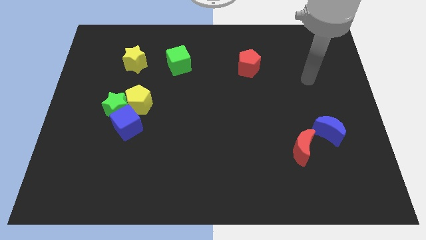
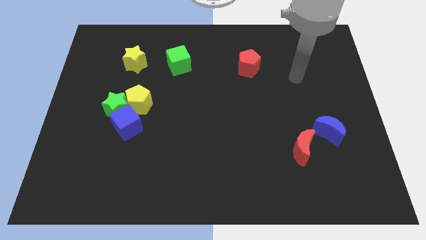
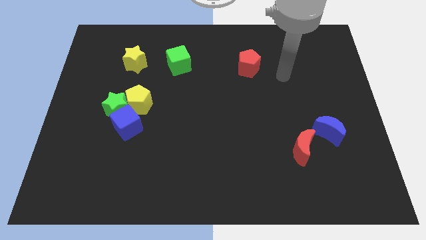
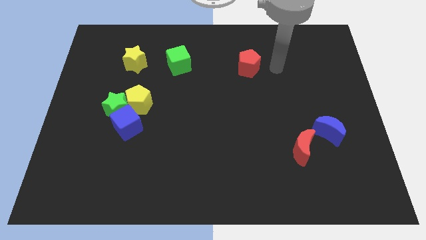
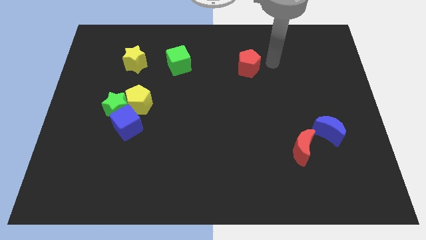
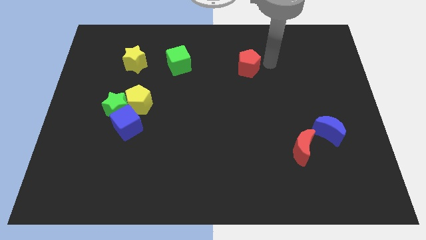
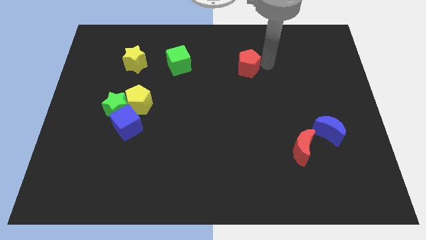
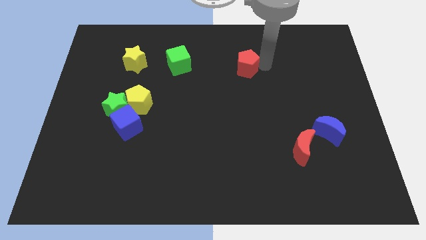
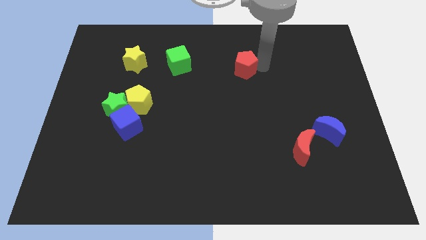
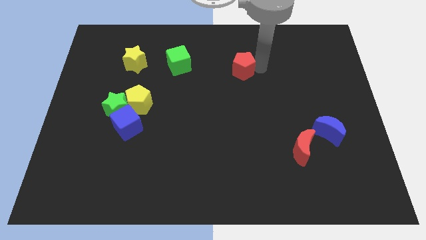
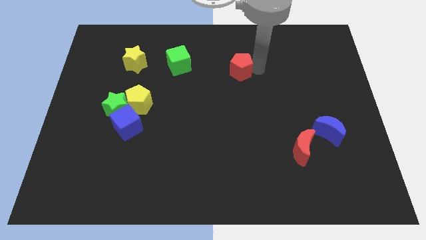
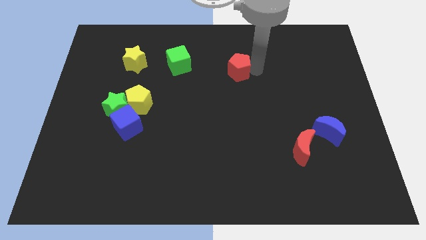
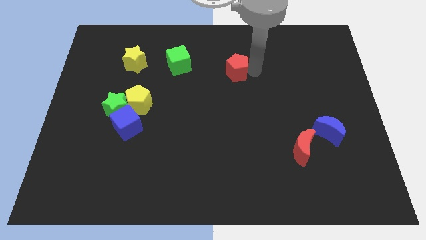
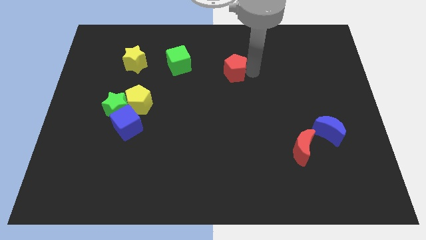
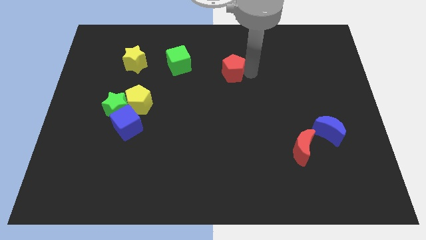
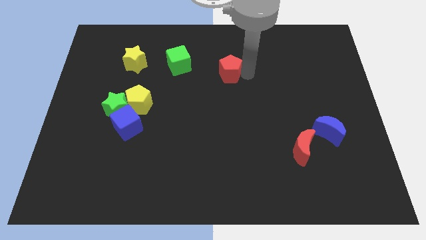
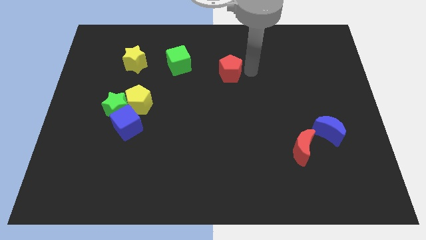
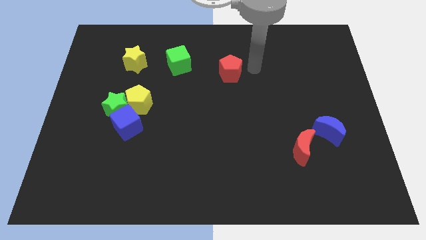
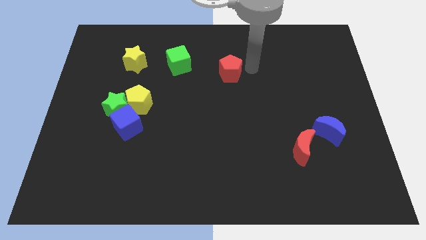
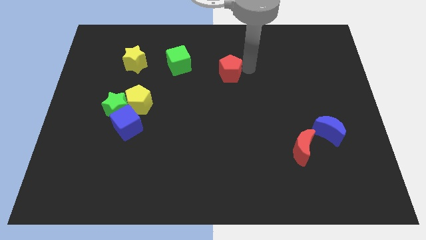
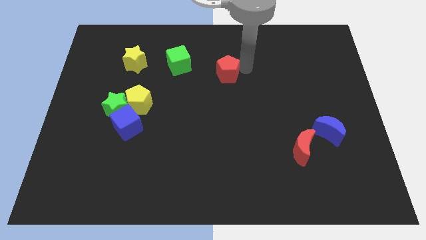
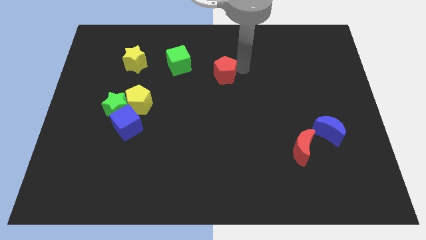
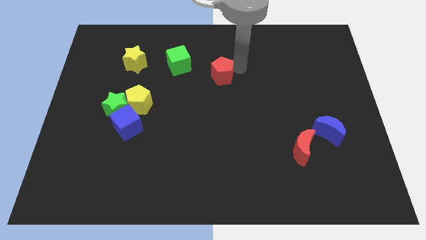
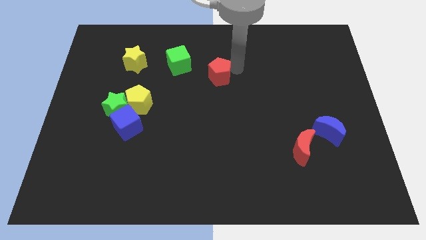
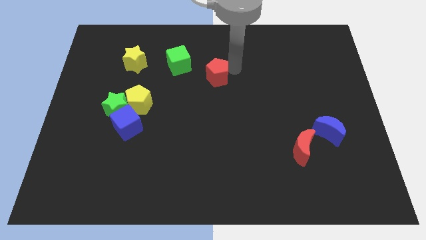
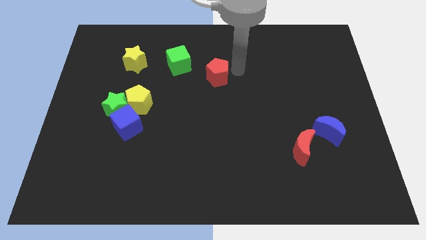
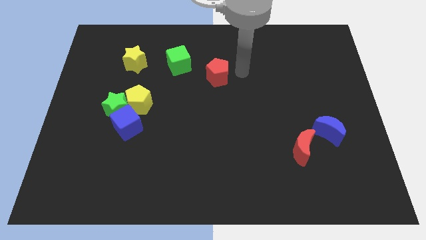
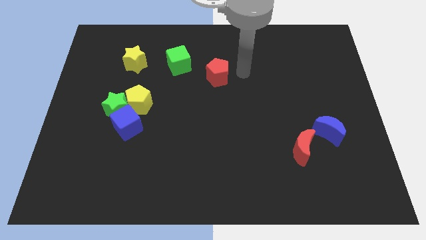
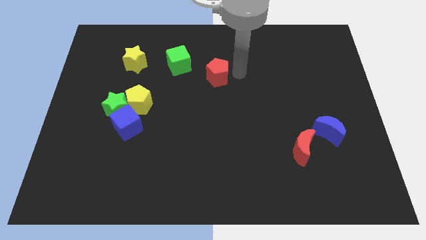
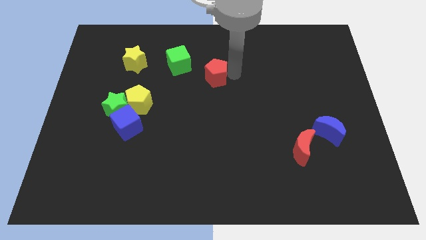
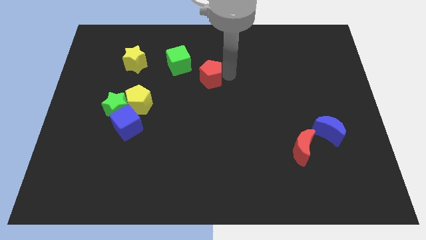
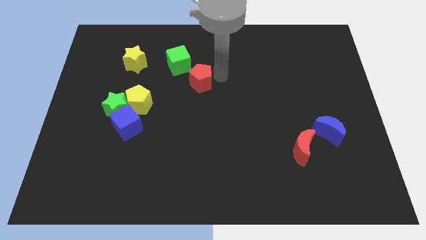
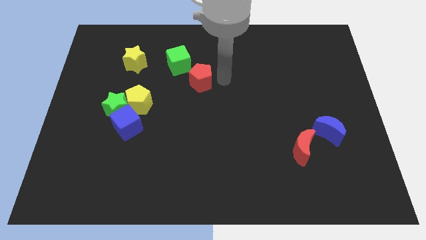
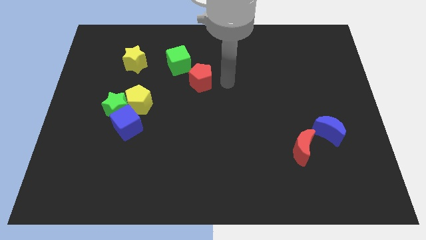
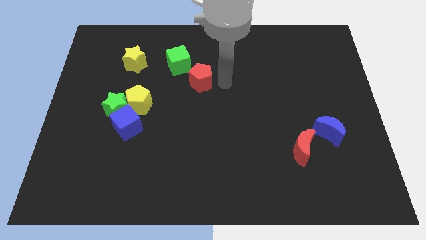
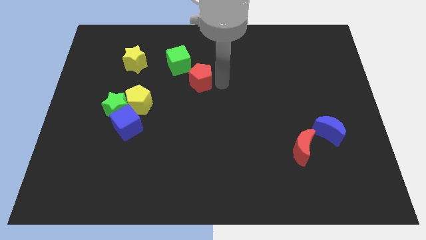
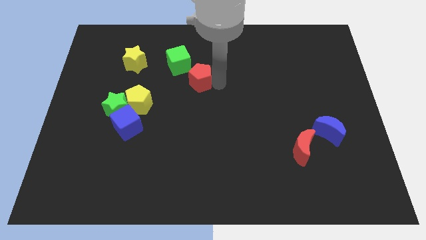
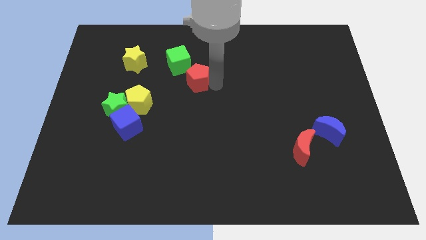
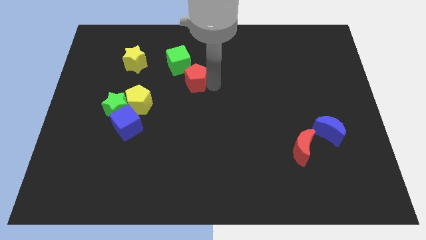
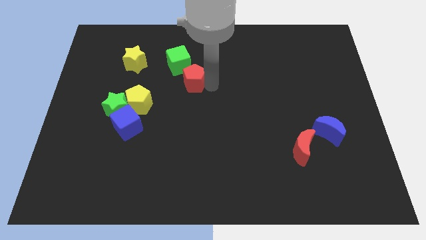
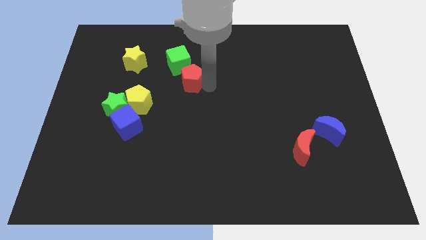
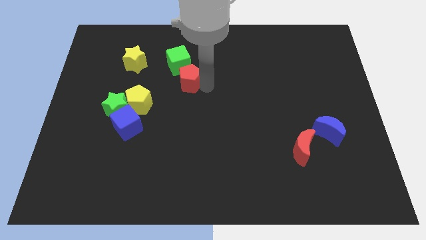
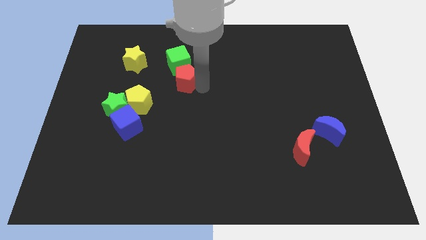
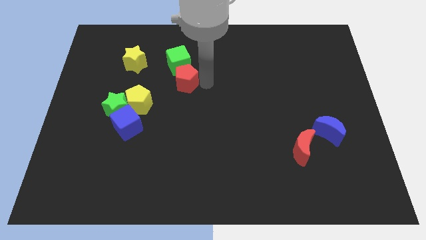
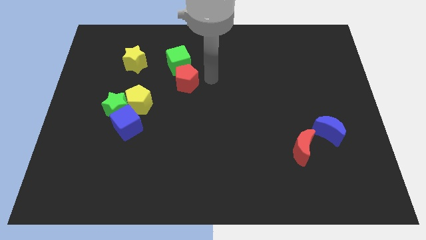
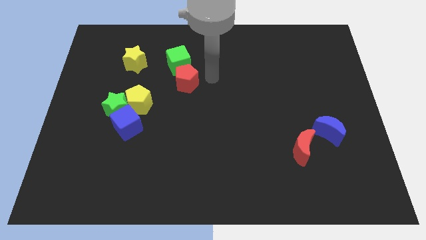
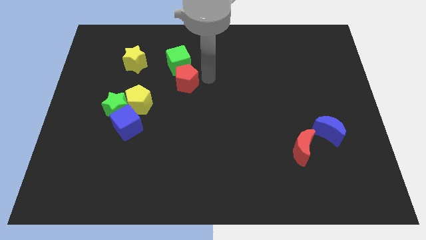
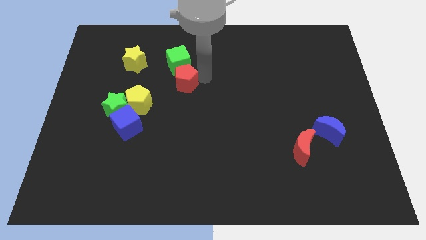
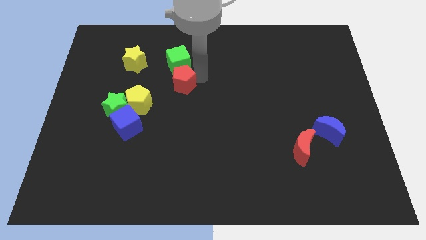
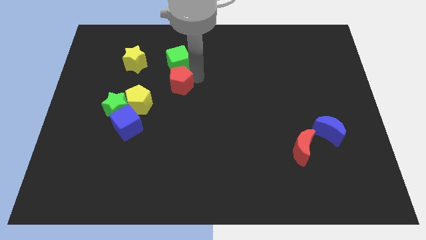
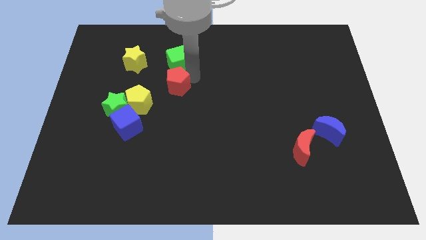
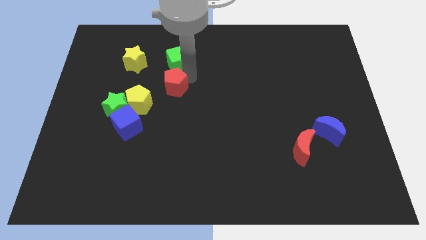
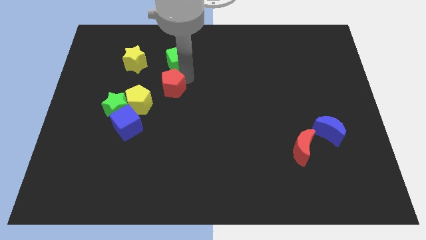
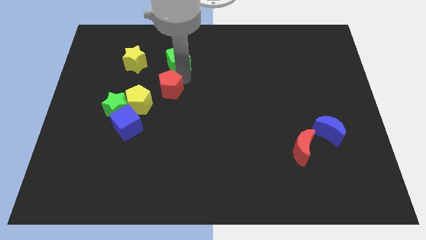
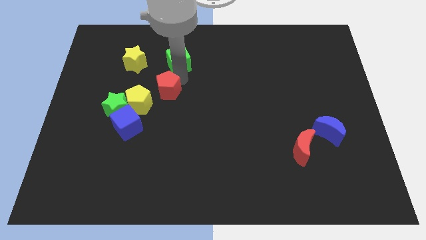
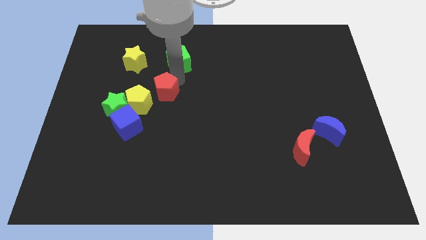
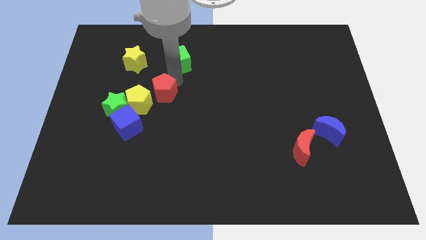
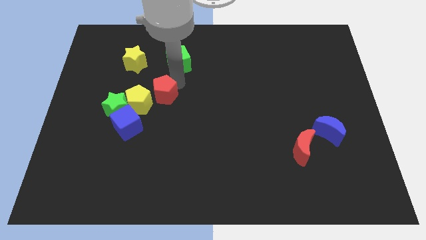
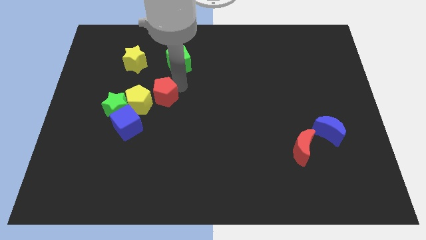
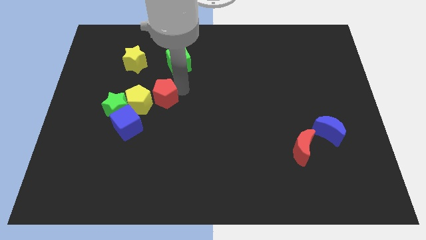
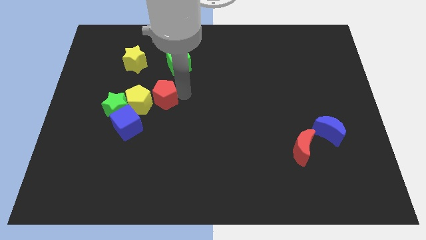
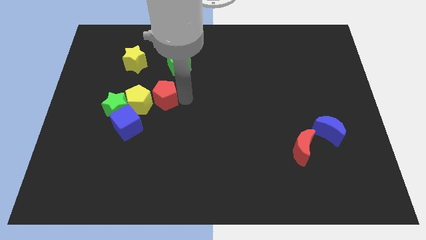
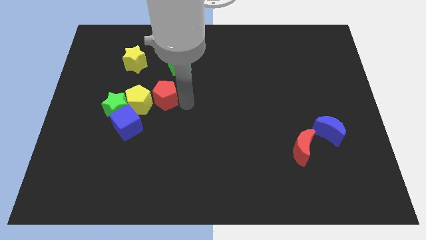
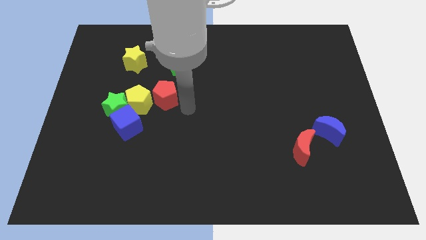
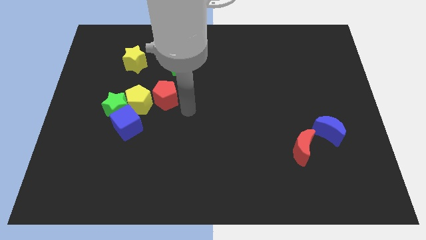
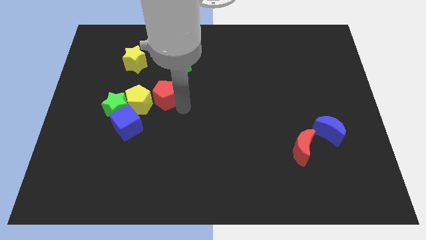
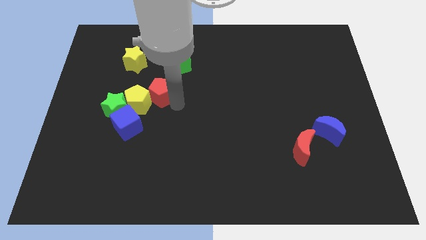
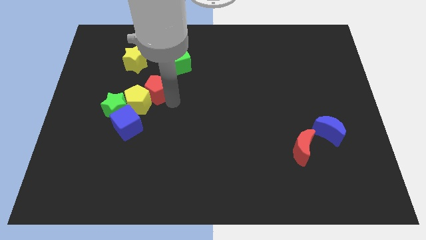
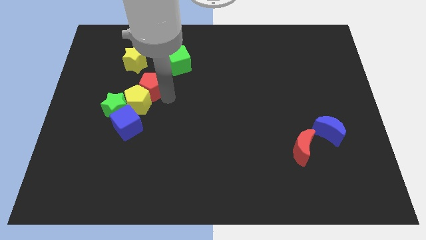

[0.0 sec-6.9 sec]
put the red pentagon above the blue cube
